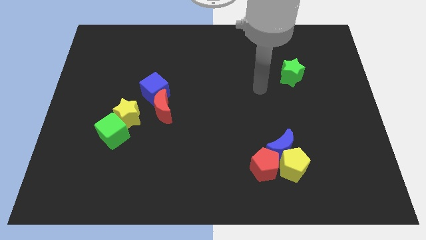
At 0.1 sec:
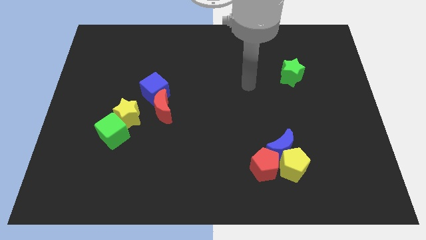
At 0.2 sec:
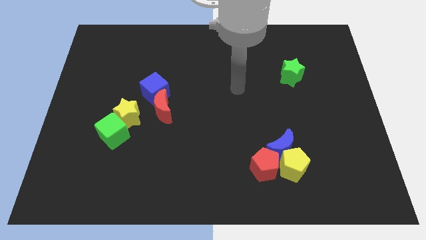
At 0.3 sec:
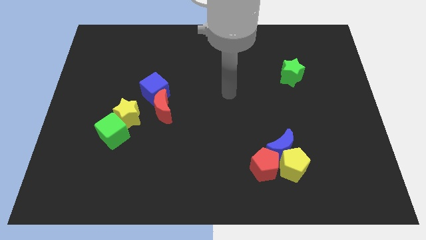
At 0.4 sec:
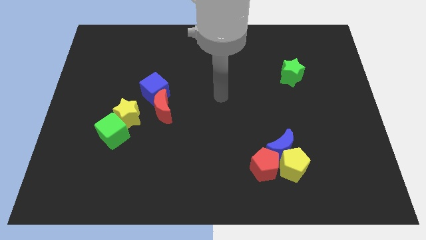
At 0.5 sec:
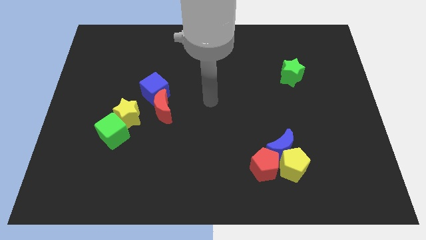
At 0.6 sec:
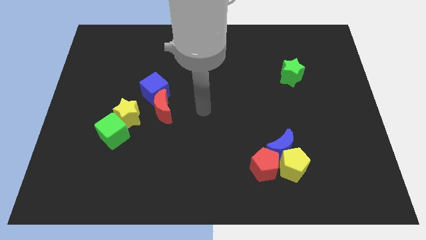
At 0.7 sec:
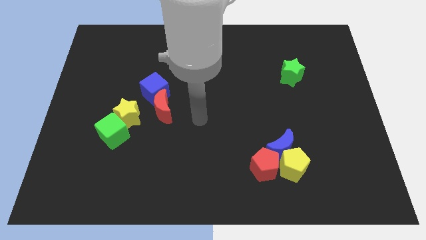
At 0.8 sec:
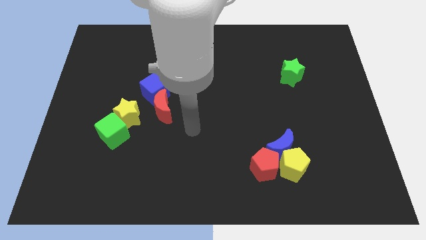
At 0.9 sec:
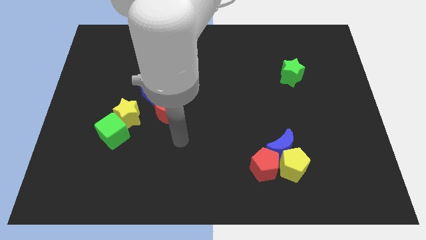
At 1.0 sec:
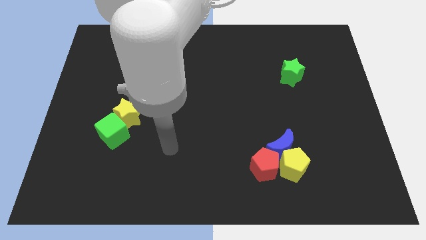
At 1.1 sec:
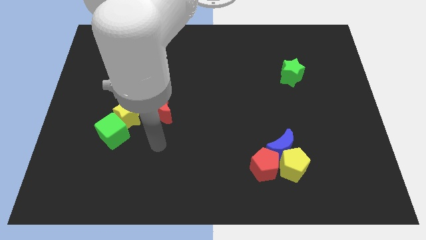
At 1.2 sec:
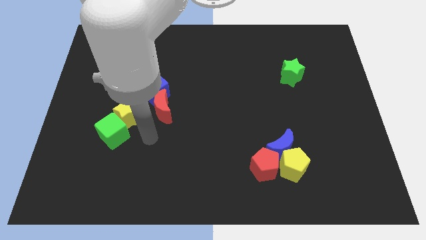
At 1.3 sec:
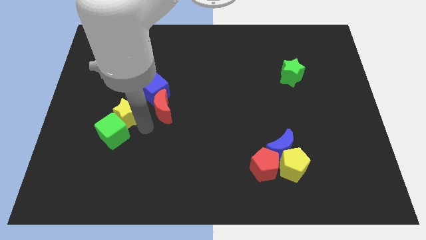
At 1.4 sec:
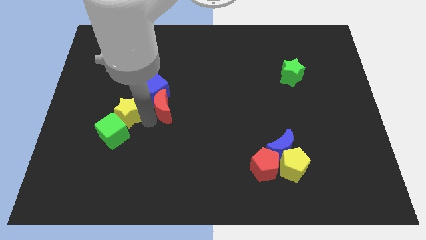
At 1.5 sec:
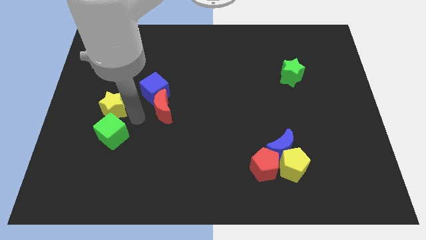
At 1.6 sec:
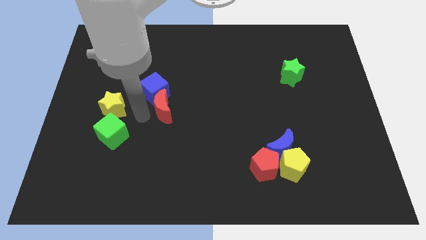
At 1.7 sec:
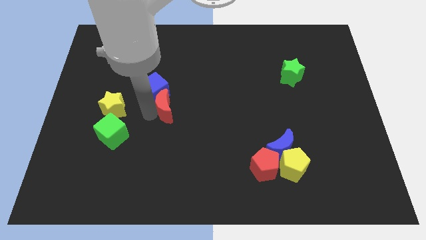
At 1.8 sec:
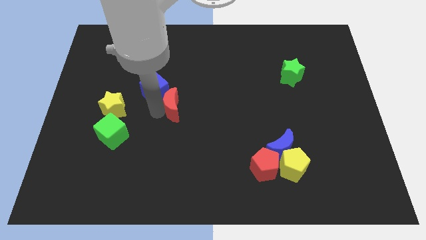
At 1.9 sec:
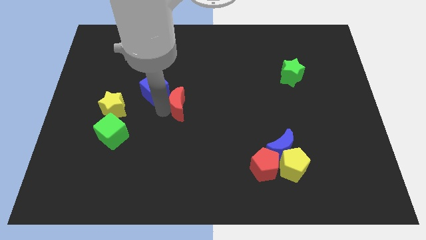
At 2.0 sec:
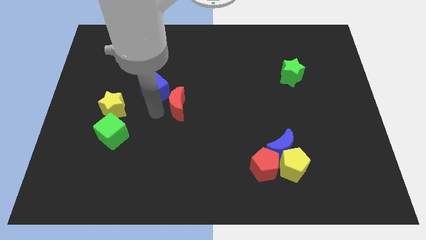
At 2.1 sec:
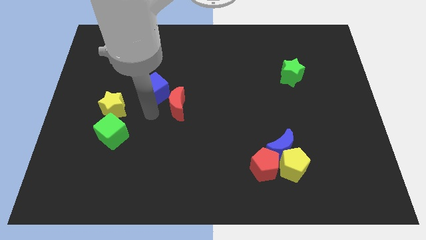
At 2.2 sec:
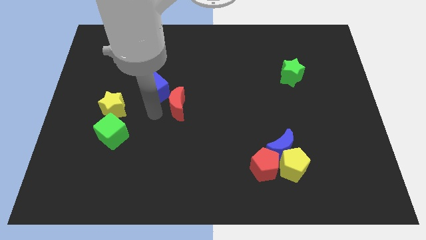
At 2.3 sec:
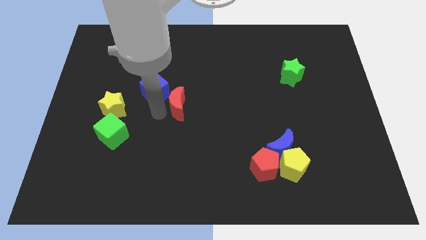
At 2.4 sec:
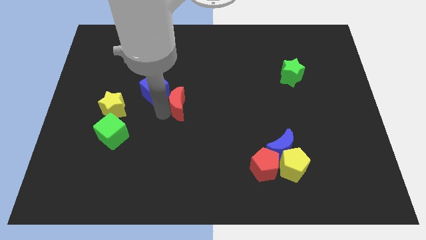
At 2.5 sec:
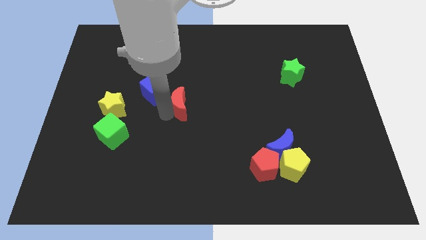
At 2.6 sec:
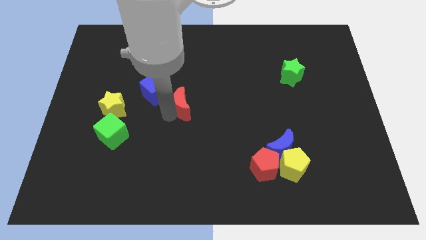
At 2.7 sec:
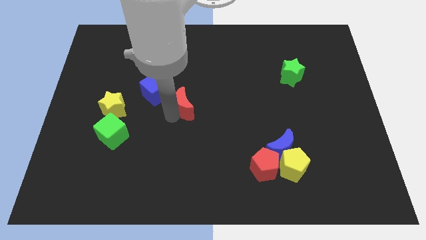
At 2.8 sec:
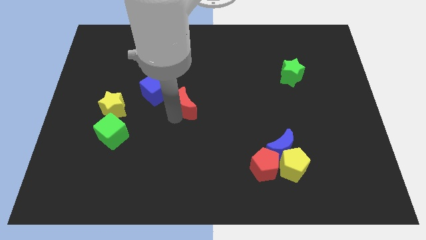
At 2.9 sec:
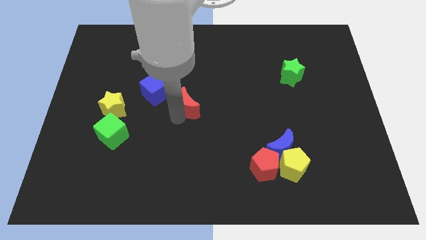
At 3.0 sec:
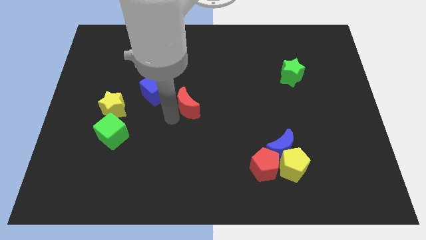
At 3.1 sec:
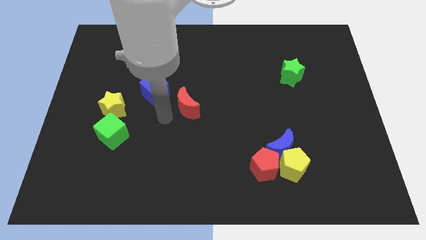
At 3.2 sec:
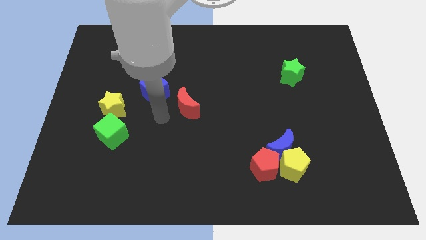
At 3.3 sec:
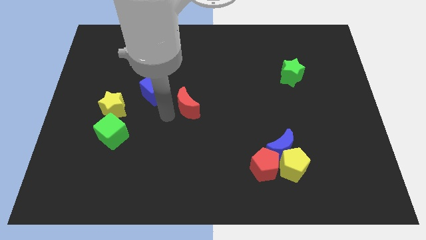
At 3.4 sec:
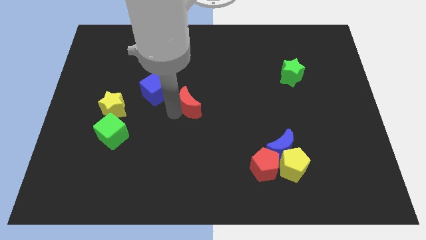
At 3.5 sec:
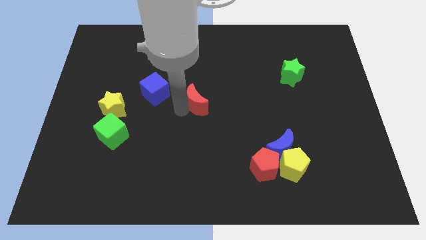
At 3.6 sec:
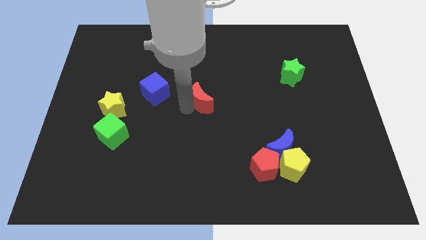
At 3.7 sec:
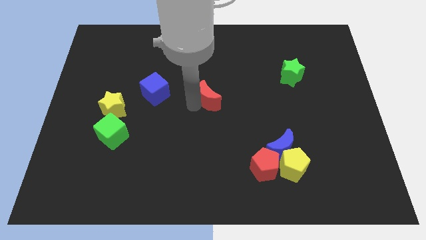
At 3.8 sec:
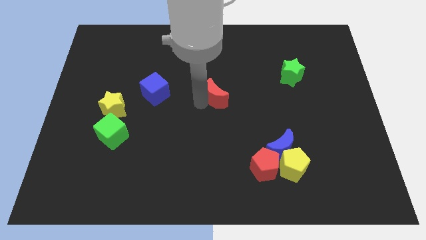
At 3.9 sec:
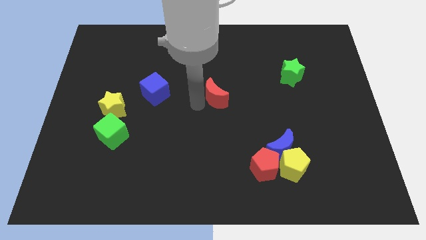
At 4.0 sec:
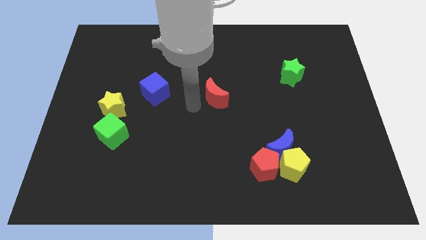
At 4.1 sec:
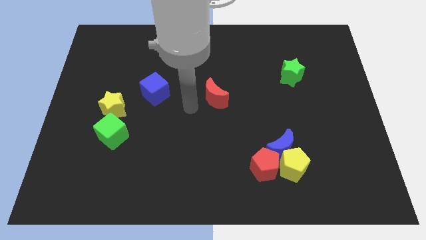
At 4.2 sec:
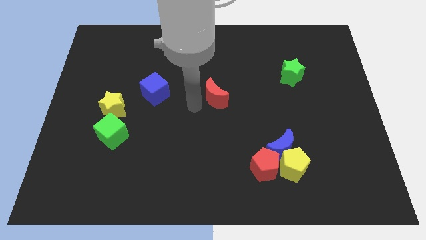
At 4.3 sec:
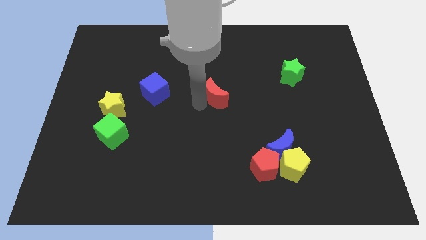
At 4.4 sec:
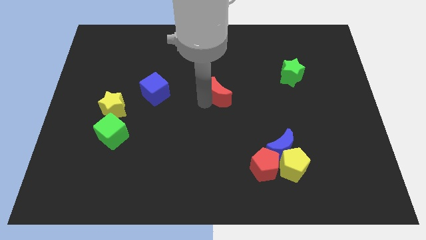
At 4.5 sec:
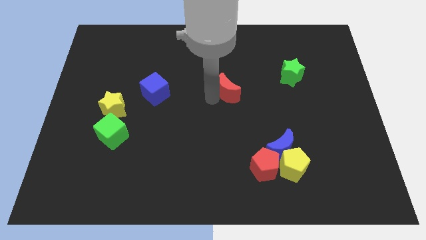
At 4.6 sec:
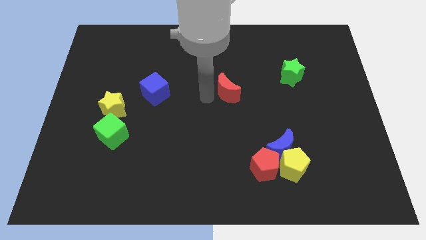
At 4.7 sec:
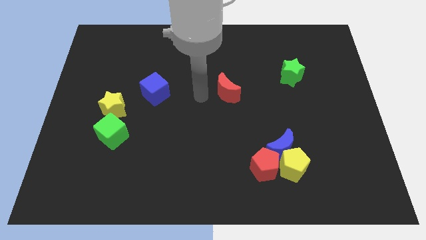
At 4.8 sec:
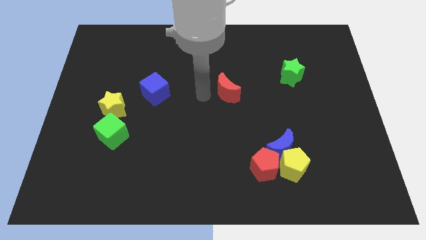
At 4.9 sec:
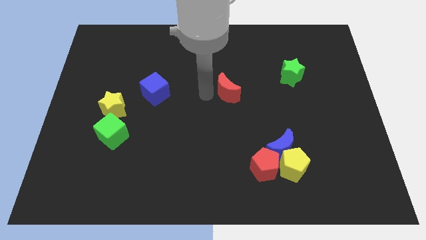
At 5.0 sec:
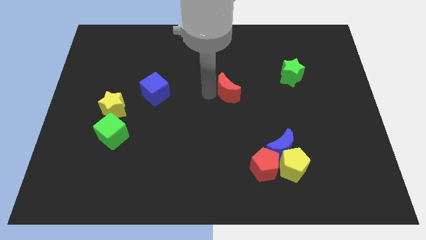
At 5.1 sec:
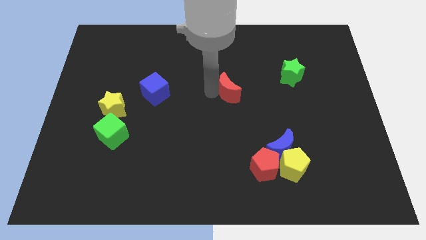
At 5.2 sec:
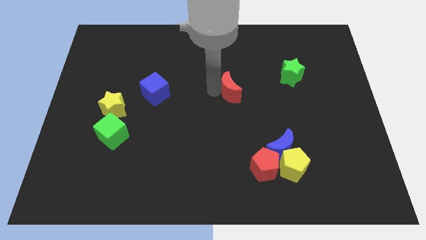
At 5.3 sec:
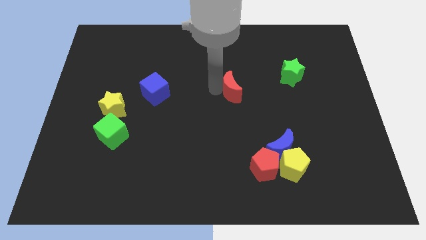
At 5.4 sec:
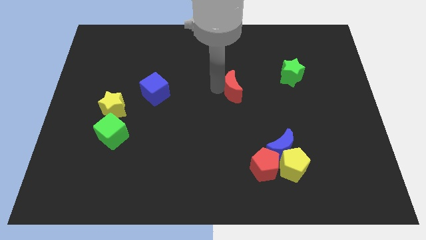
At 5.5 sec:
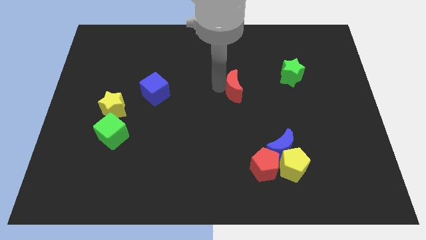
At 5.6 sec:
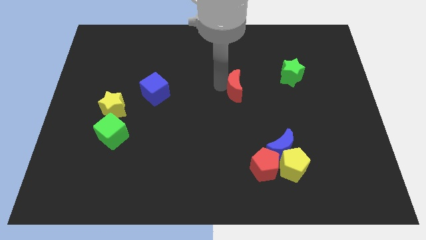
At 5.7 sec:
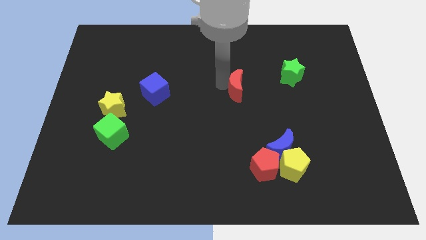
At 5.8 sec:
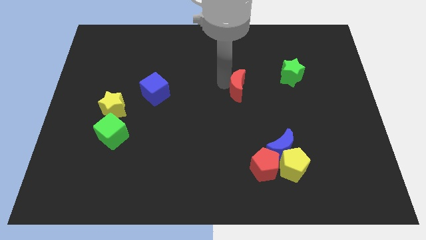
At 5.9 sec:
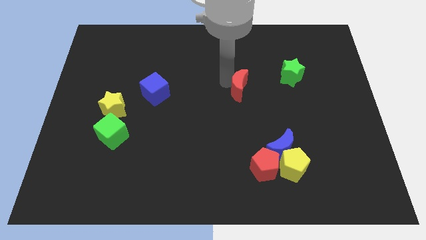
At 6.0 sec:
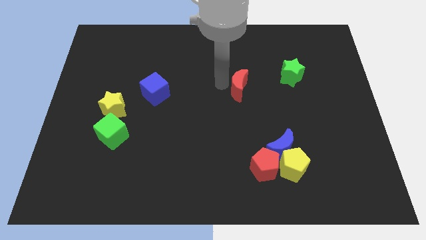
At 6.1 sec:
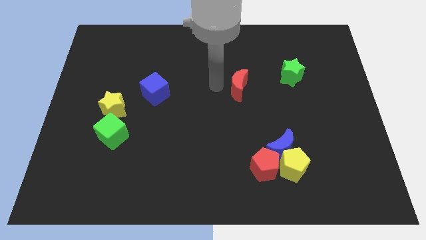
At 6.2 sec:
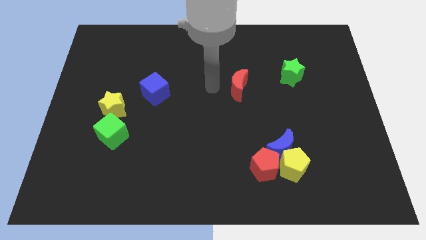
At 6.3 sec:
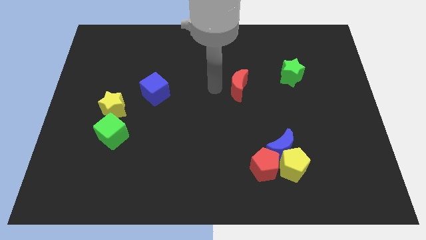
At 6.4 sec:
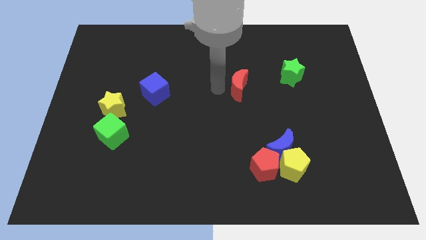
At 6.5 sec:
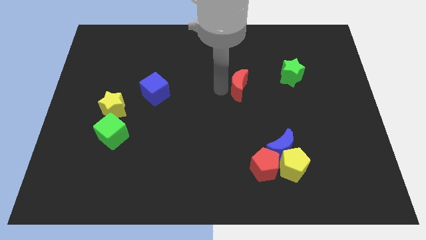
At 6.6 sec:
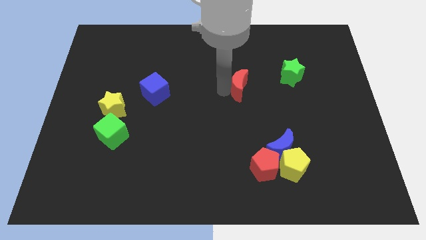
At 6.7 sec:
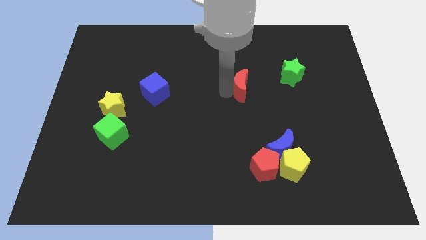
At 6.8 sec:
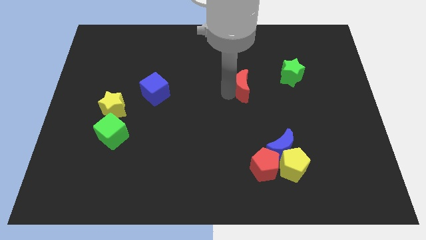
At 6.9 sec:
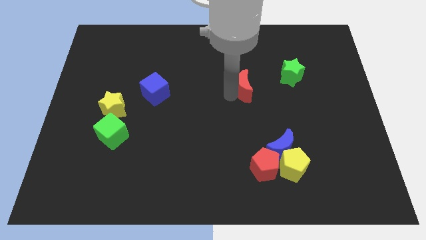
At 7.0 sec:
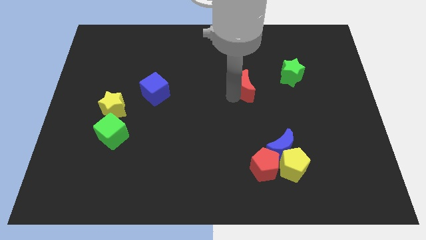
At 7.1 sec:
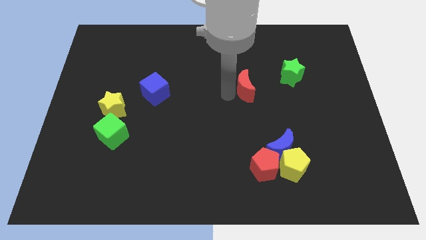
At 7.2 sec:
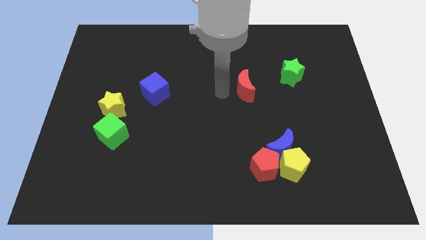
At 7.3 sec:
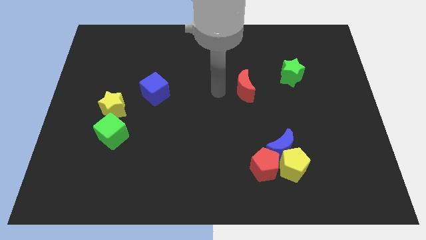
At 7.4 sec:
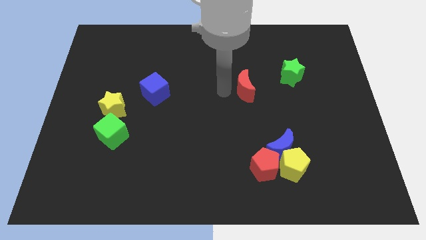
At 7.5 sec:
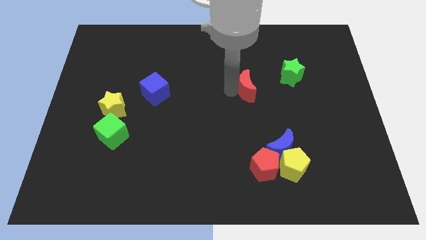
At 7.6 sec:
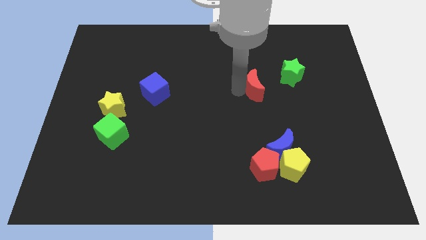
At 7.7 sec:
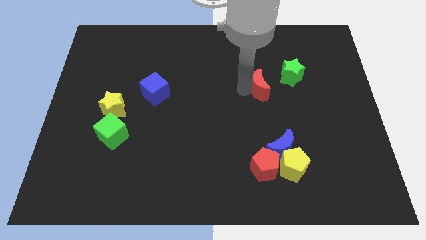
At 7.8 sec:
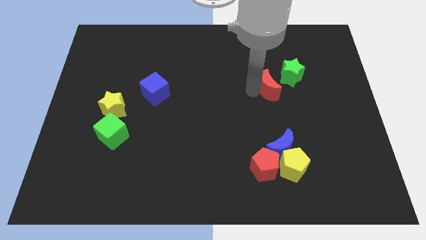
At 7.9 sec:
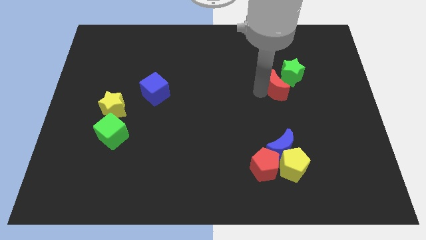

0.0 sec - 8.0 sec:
push the red moon to the green star

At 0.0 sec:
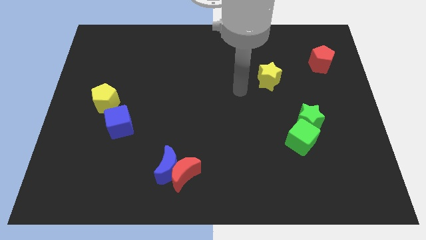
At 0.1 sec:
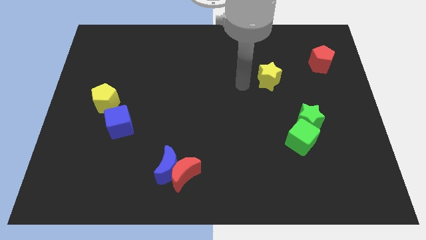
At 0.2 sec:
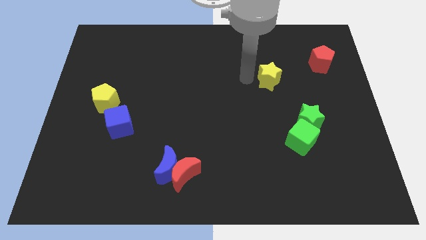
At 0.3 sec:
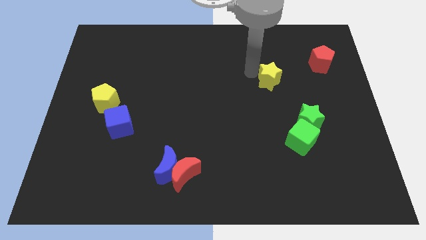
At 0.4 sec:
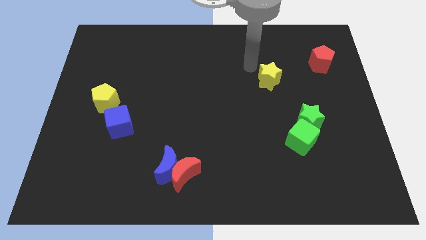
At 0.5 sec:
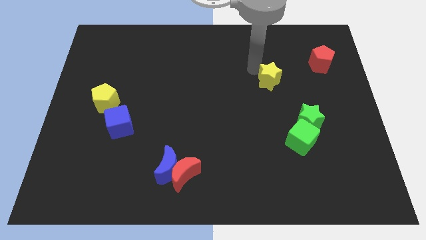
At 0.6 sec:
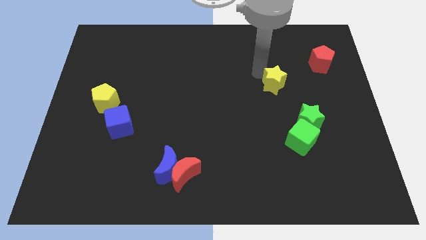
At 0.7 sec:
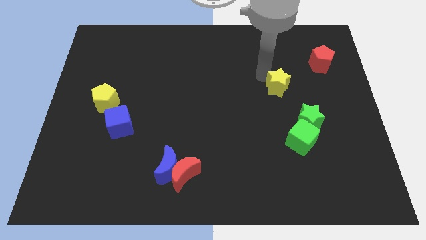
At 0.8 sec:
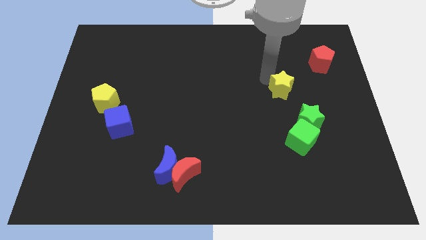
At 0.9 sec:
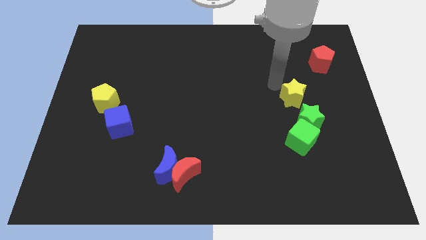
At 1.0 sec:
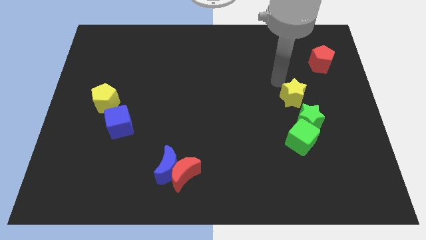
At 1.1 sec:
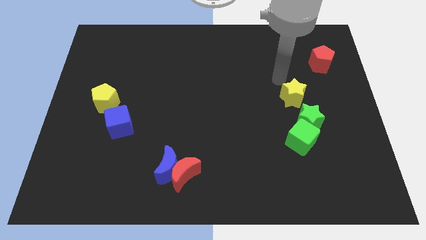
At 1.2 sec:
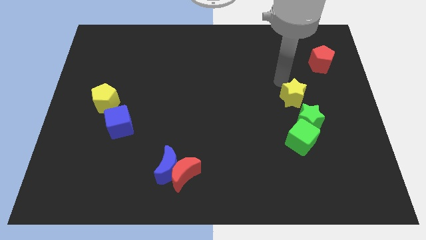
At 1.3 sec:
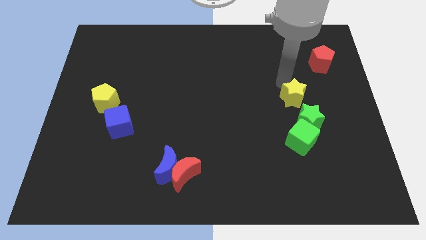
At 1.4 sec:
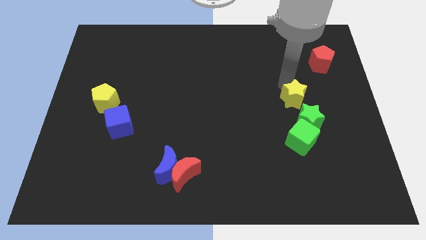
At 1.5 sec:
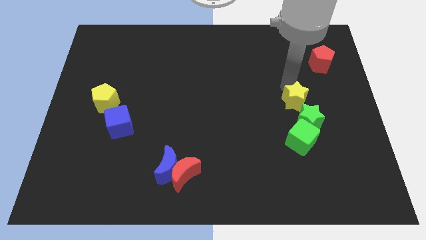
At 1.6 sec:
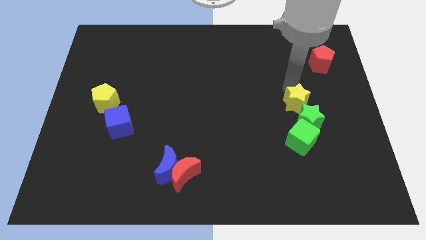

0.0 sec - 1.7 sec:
move the yellow star next to the green star
